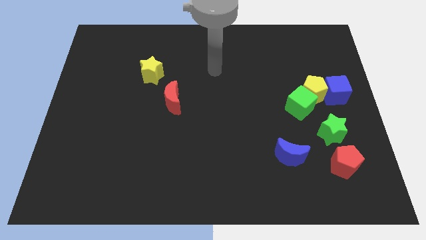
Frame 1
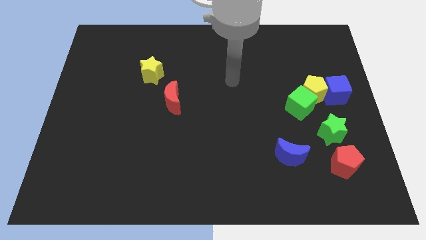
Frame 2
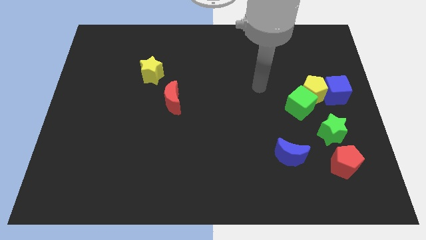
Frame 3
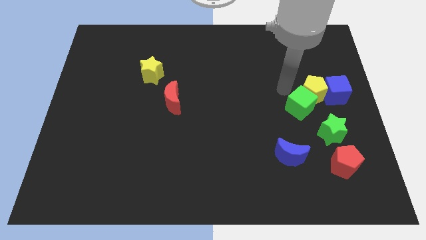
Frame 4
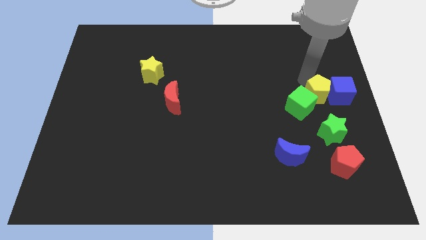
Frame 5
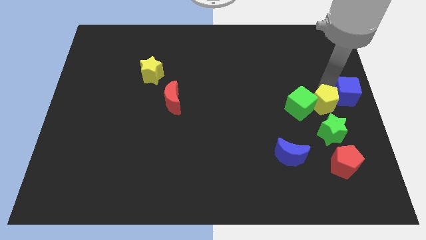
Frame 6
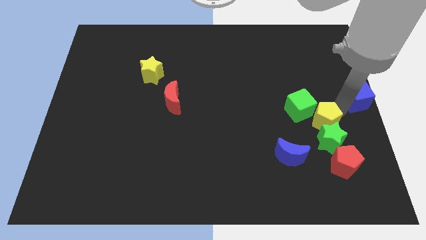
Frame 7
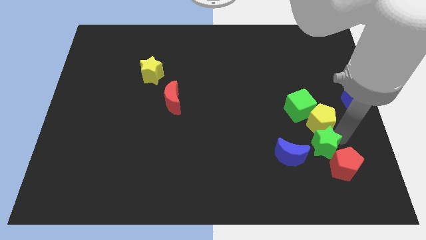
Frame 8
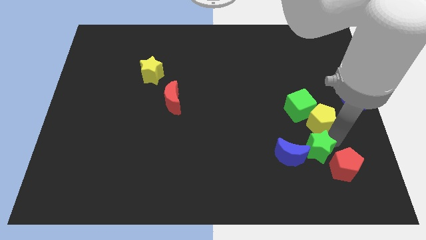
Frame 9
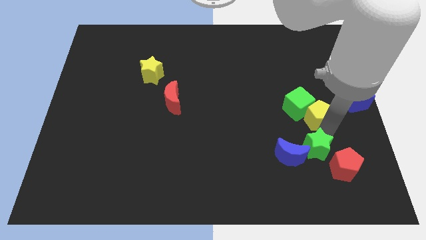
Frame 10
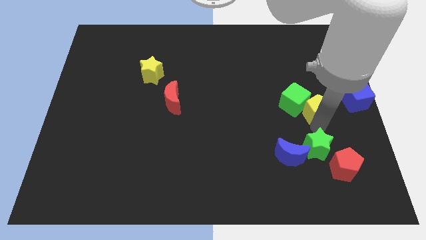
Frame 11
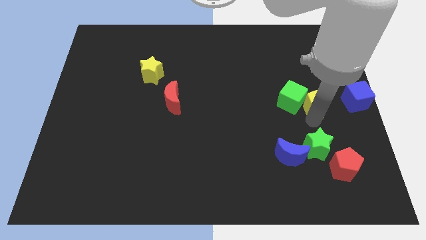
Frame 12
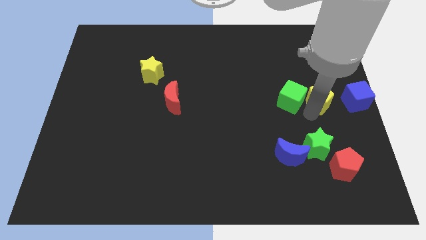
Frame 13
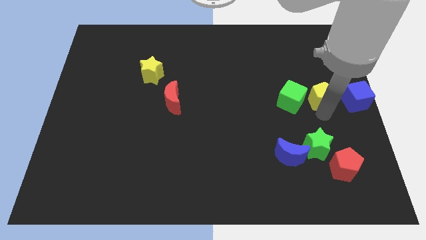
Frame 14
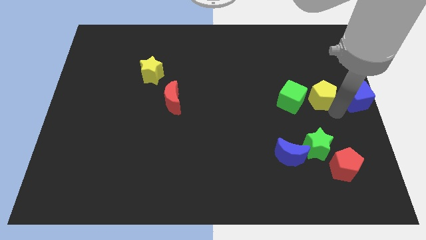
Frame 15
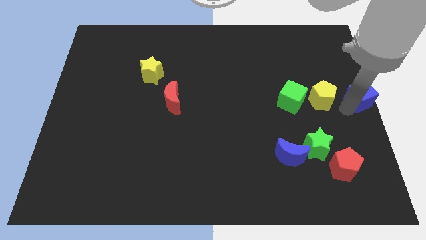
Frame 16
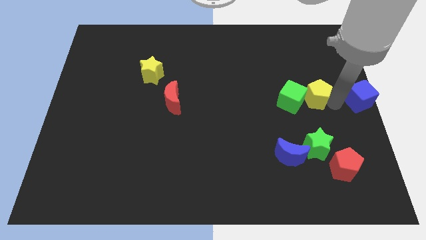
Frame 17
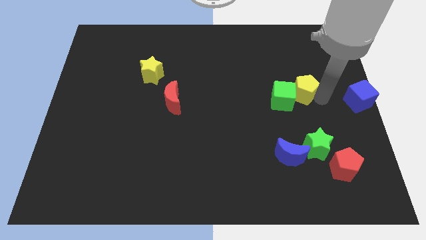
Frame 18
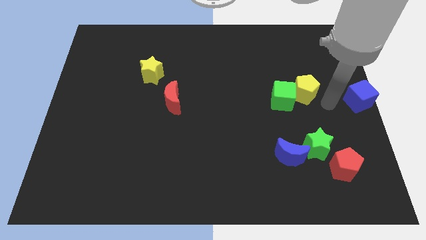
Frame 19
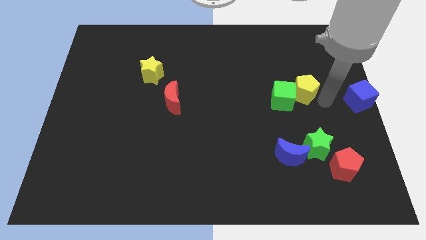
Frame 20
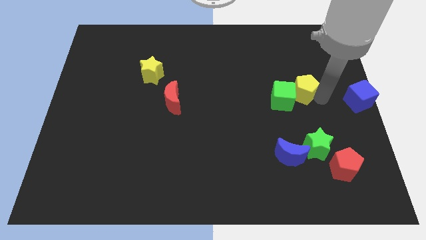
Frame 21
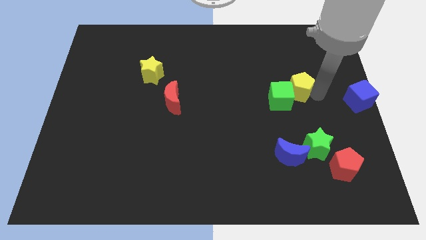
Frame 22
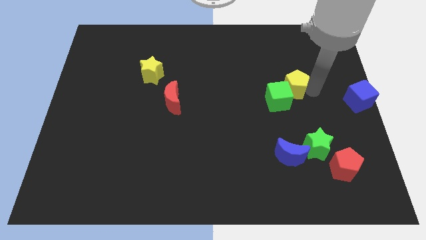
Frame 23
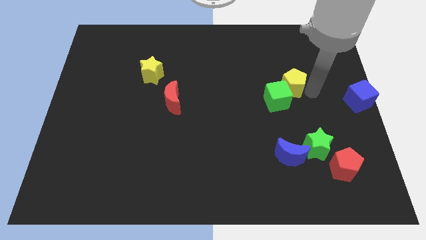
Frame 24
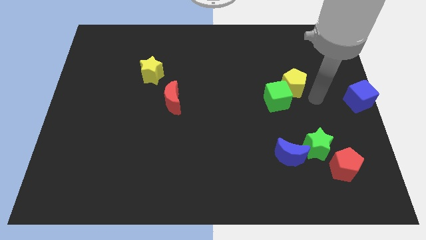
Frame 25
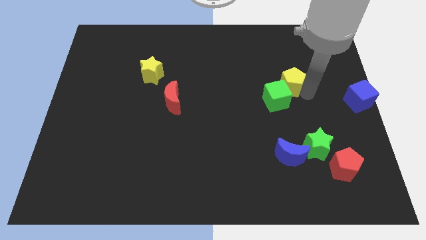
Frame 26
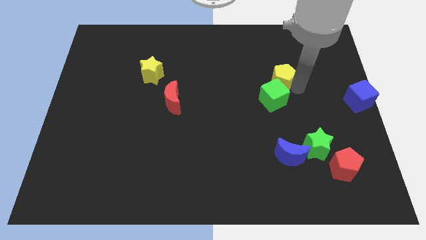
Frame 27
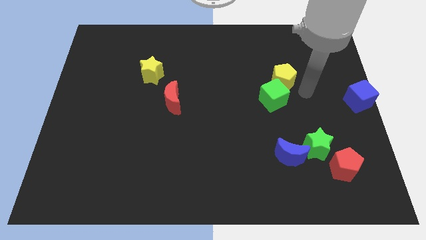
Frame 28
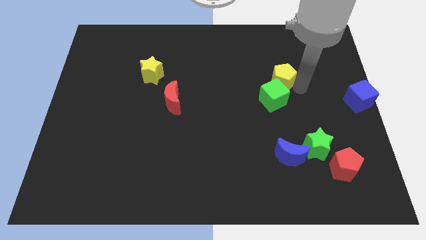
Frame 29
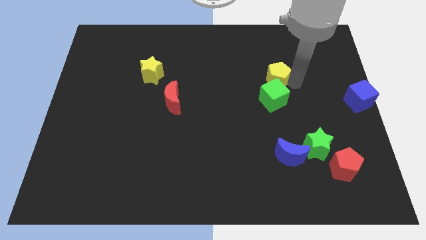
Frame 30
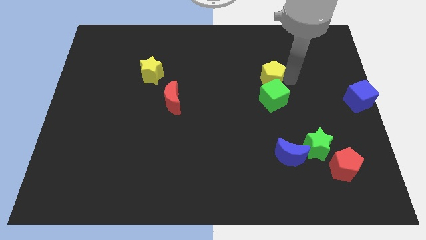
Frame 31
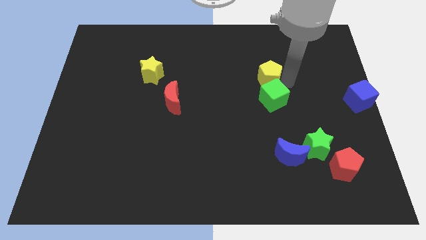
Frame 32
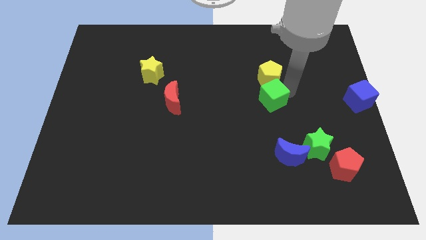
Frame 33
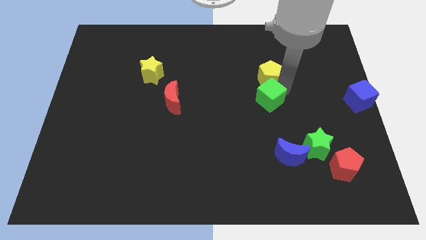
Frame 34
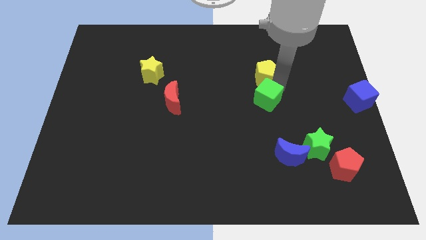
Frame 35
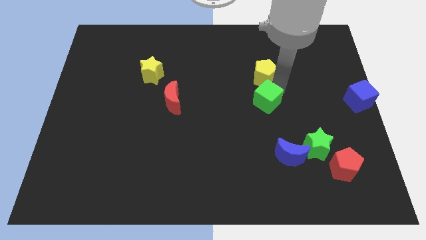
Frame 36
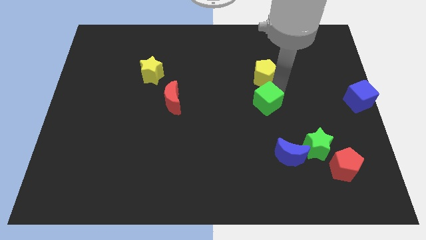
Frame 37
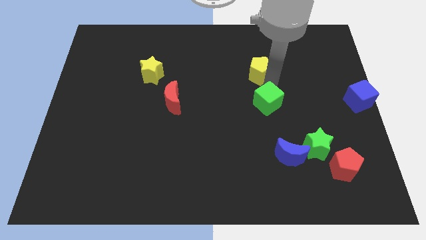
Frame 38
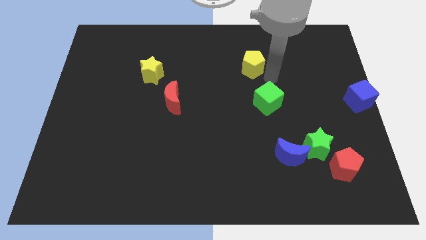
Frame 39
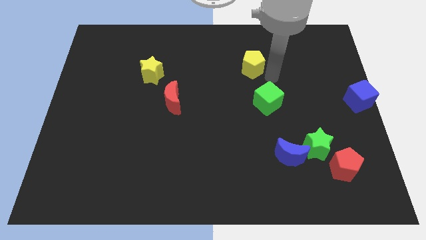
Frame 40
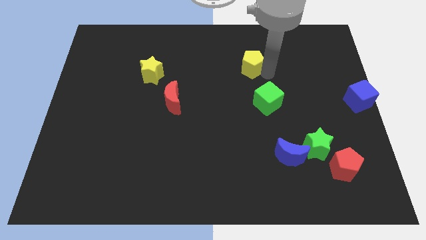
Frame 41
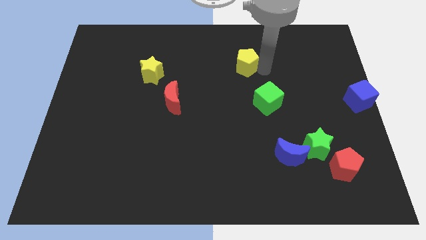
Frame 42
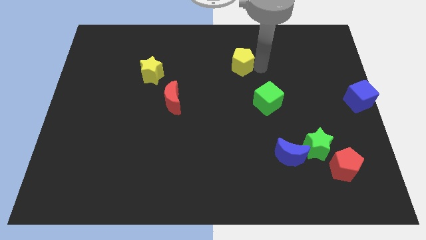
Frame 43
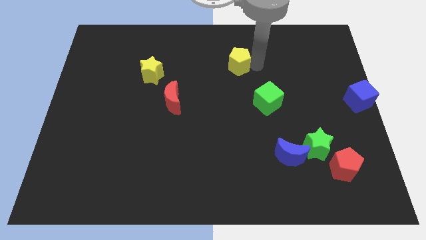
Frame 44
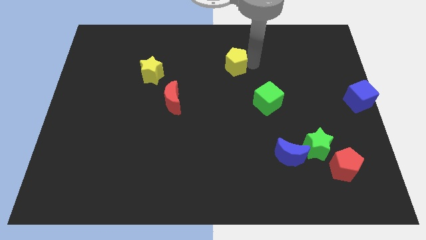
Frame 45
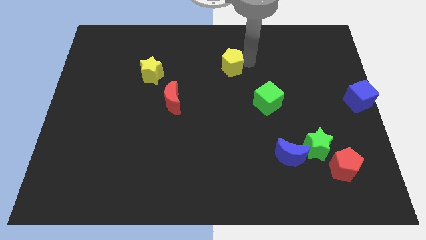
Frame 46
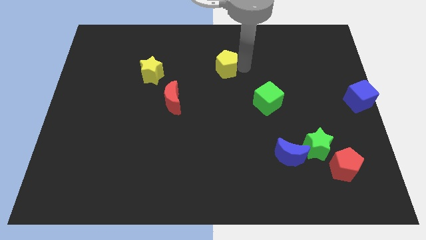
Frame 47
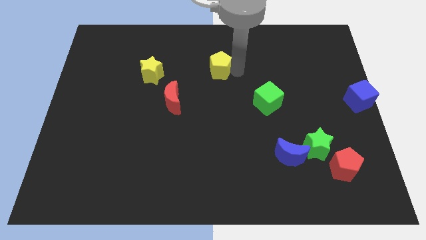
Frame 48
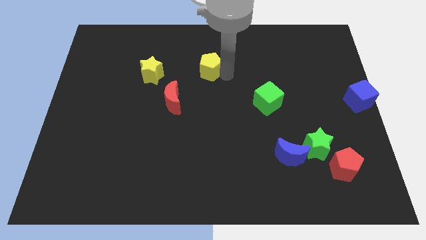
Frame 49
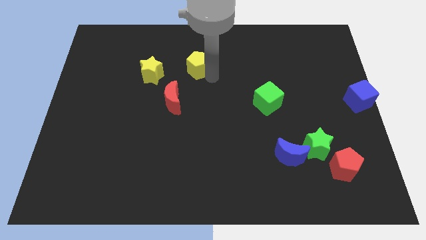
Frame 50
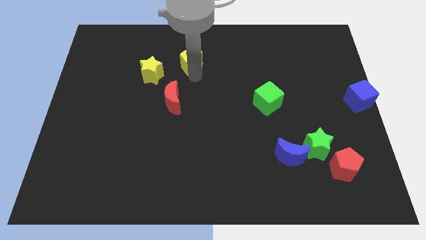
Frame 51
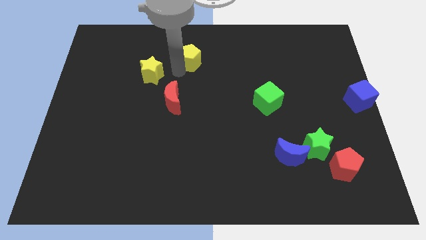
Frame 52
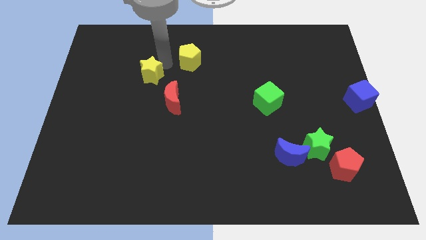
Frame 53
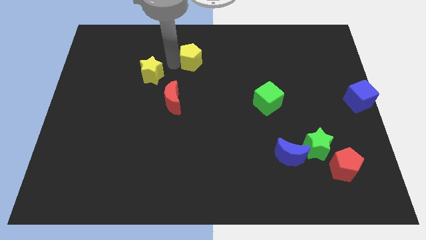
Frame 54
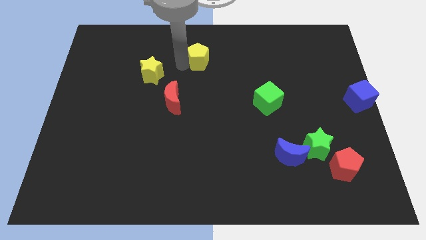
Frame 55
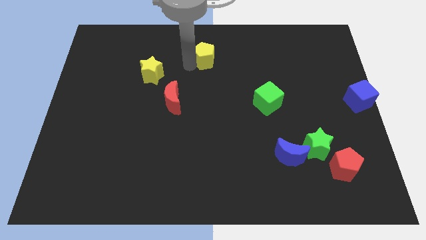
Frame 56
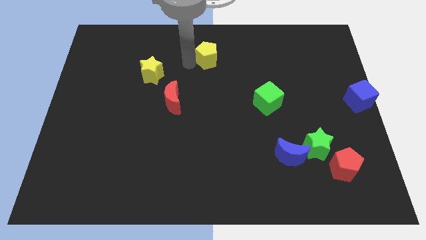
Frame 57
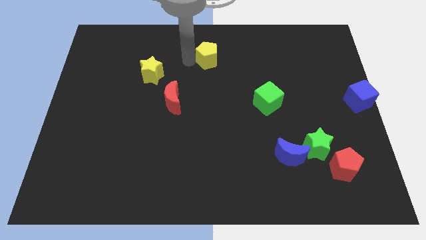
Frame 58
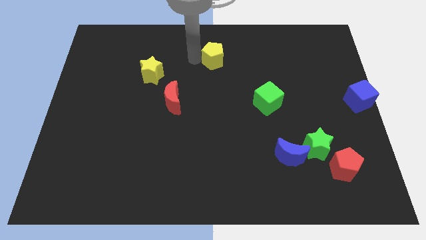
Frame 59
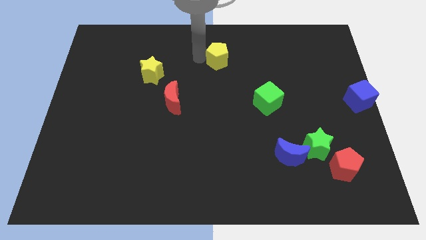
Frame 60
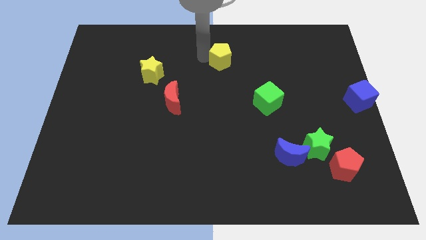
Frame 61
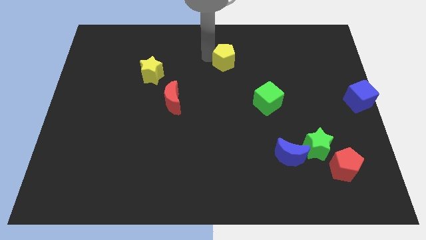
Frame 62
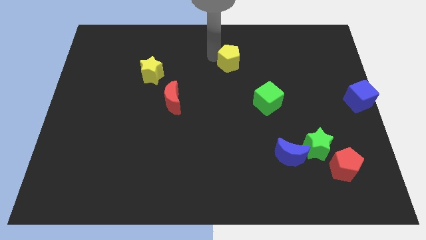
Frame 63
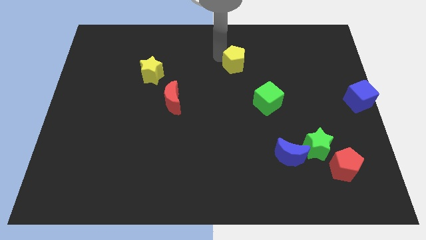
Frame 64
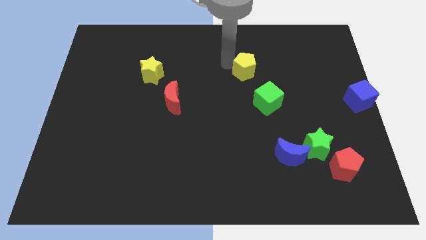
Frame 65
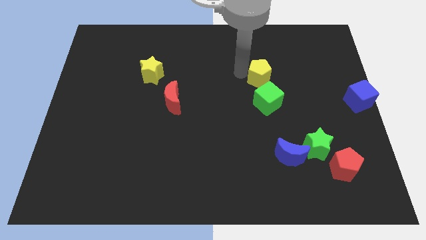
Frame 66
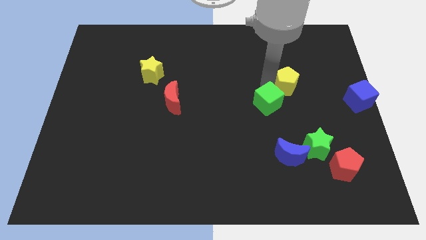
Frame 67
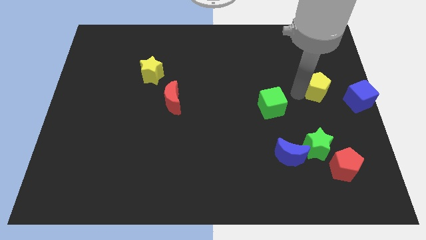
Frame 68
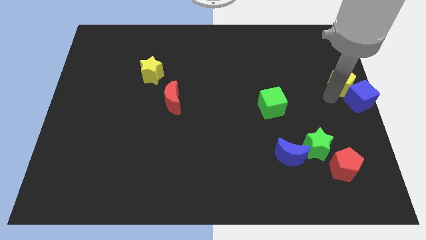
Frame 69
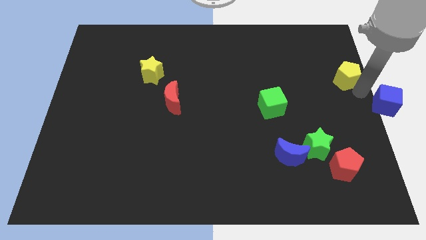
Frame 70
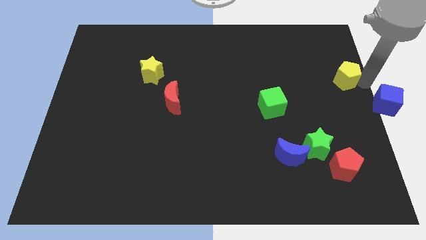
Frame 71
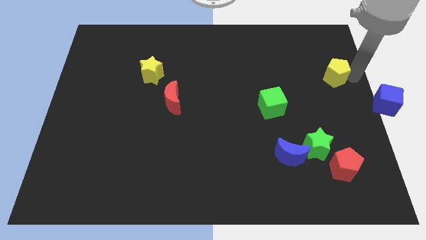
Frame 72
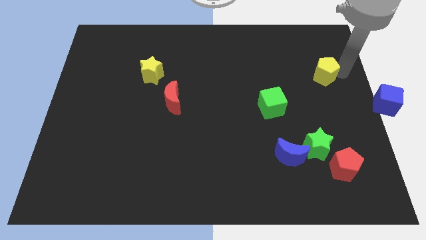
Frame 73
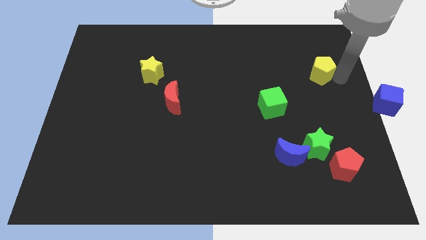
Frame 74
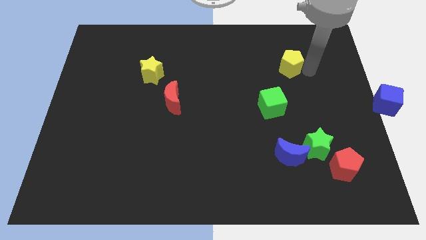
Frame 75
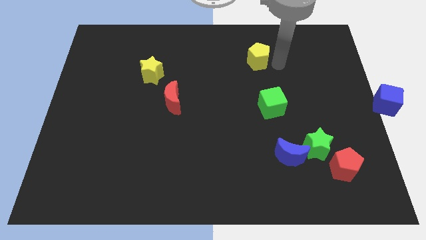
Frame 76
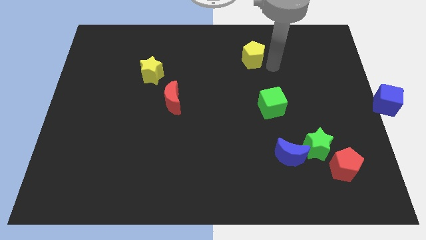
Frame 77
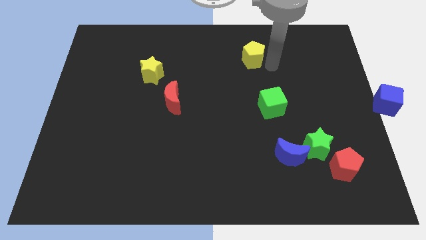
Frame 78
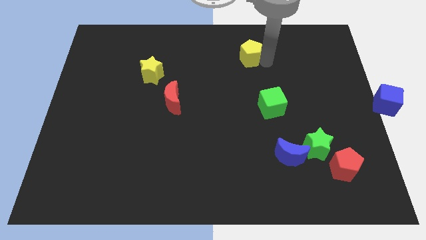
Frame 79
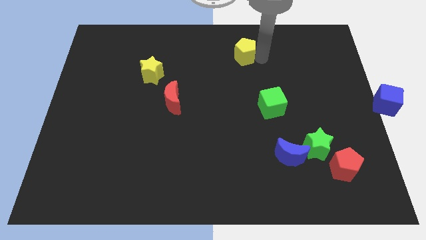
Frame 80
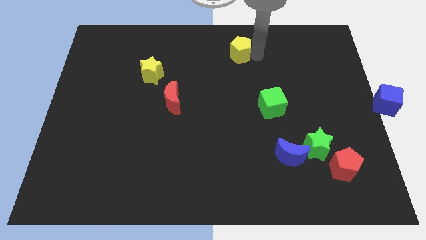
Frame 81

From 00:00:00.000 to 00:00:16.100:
move the yellow pentagon to the towards your base
